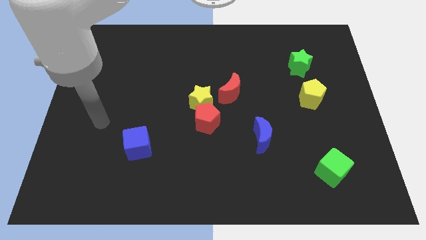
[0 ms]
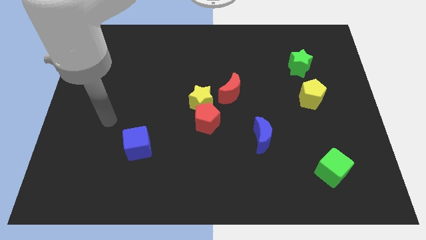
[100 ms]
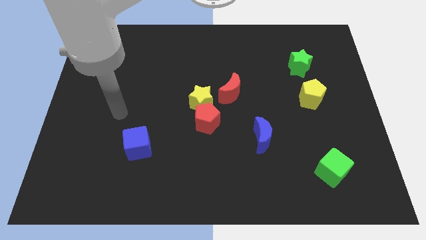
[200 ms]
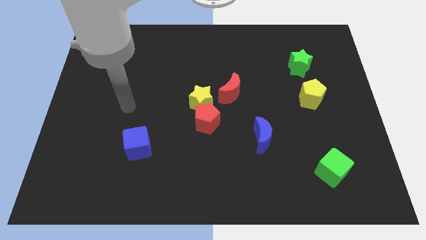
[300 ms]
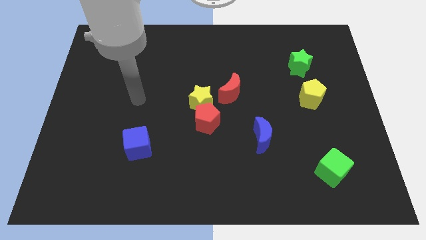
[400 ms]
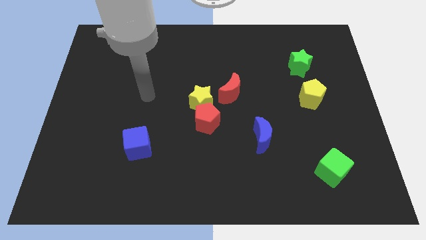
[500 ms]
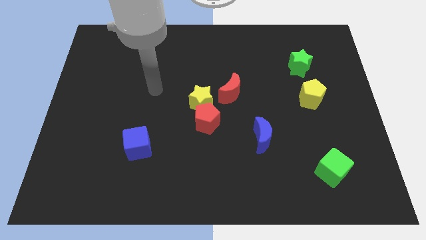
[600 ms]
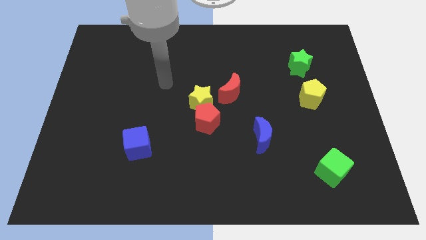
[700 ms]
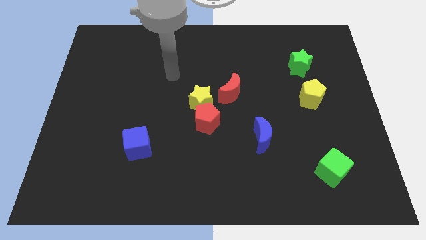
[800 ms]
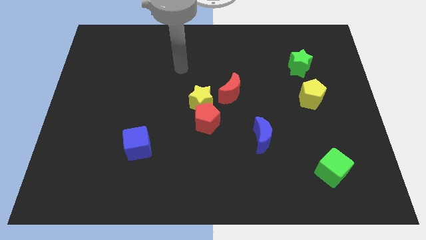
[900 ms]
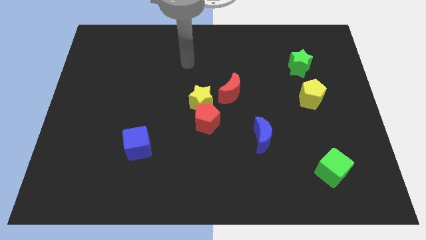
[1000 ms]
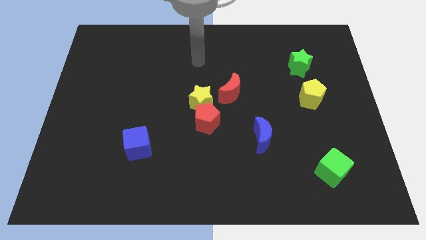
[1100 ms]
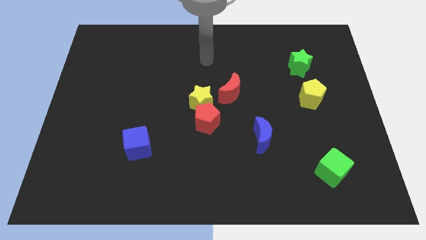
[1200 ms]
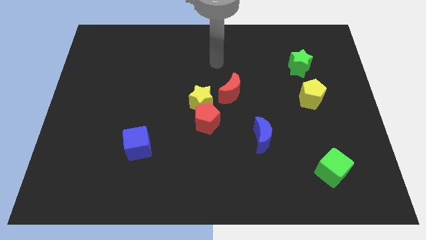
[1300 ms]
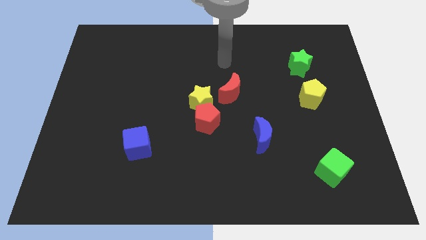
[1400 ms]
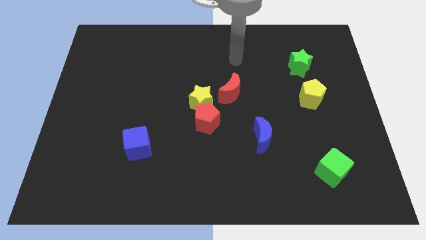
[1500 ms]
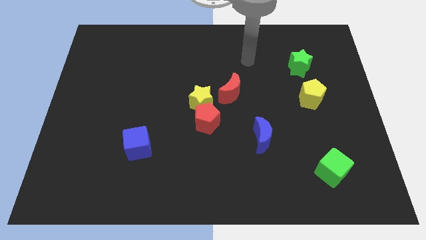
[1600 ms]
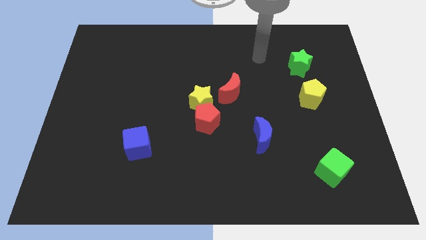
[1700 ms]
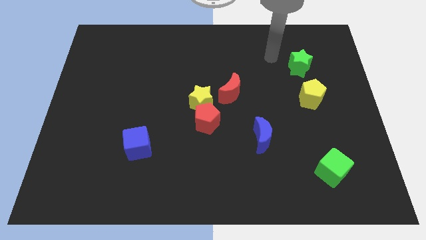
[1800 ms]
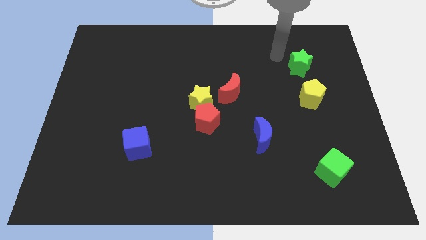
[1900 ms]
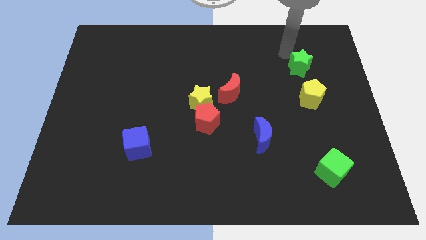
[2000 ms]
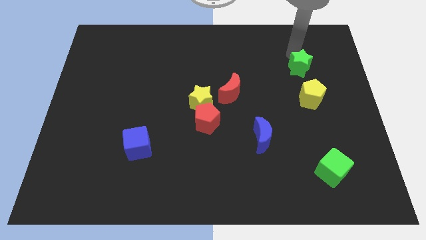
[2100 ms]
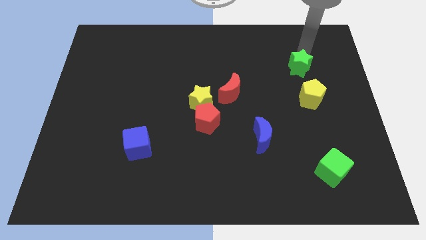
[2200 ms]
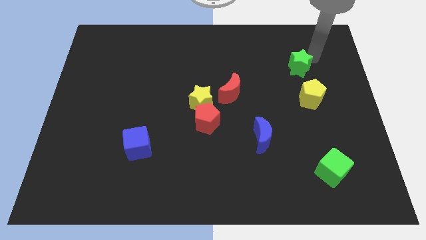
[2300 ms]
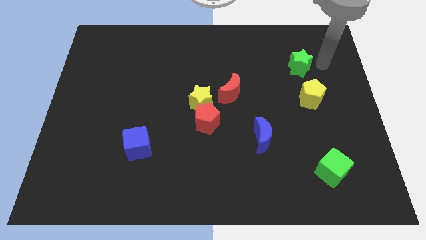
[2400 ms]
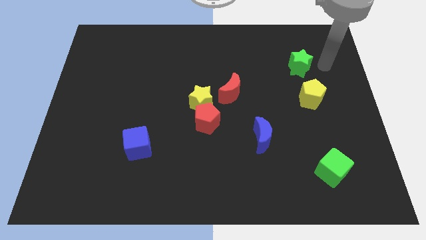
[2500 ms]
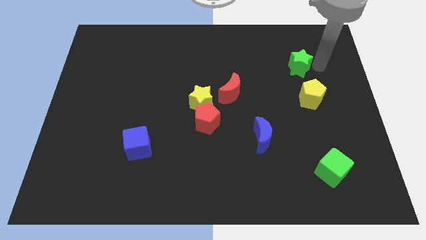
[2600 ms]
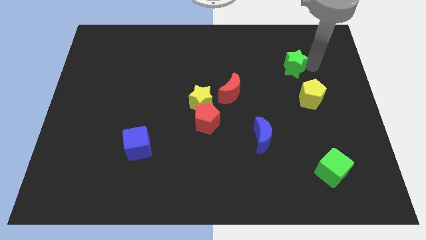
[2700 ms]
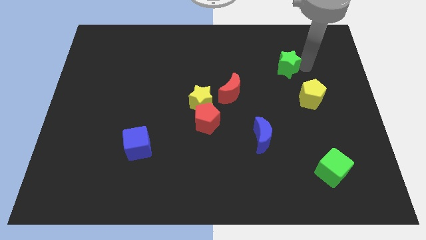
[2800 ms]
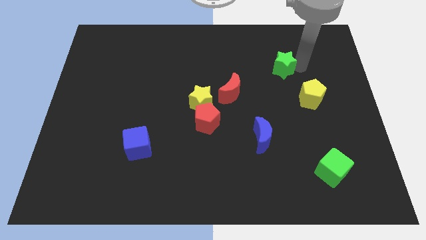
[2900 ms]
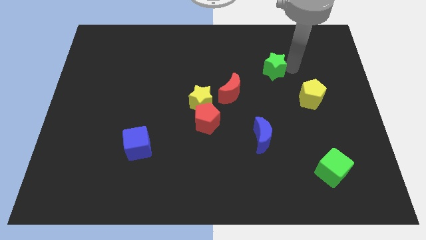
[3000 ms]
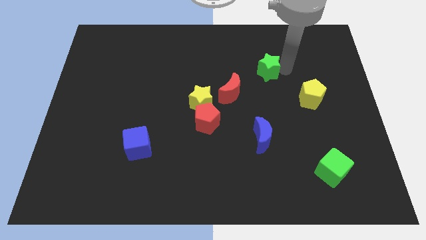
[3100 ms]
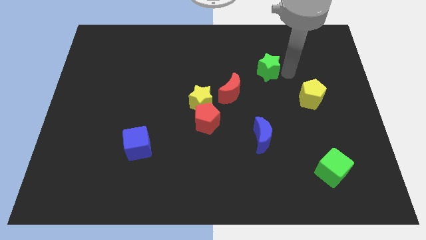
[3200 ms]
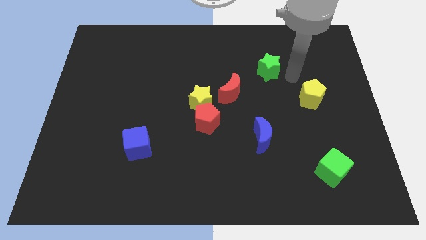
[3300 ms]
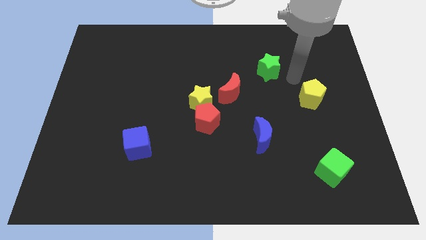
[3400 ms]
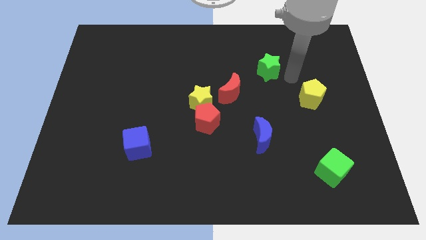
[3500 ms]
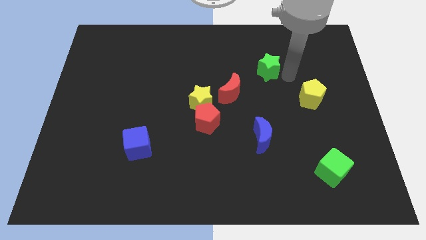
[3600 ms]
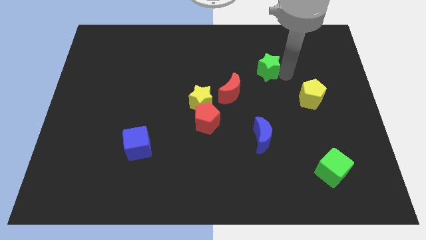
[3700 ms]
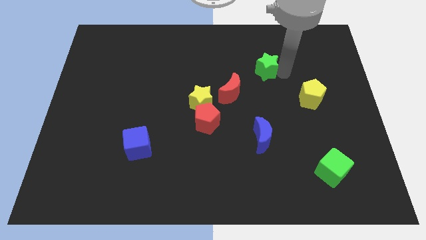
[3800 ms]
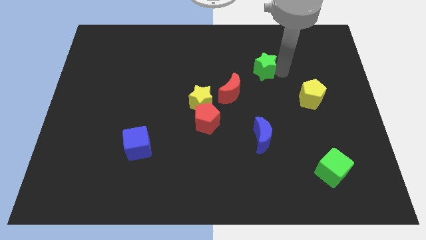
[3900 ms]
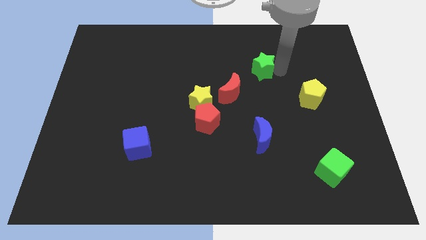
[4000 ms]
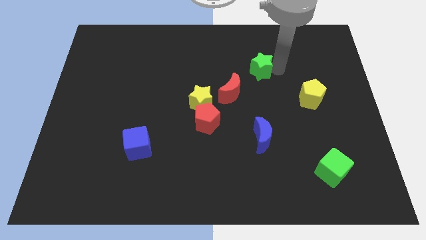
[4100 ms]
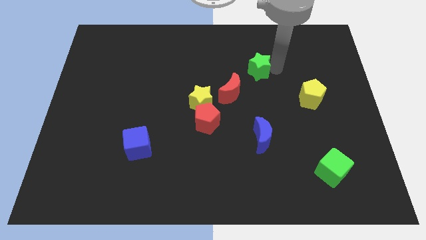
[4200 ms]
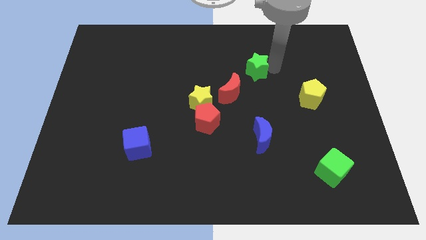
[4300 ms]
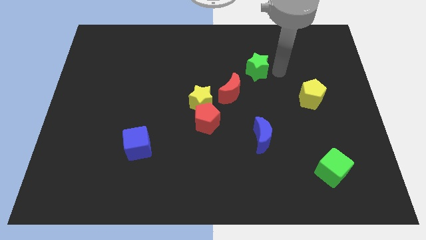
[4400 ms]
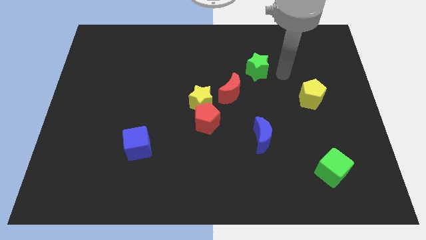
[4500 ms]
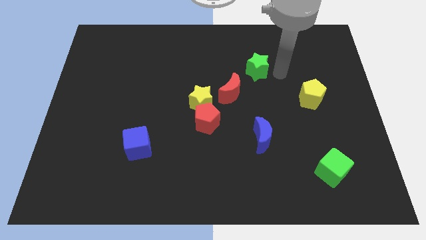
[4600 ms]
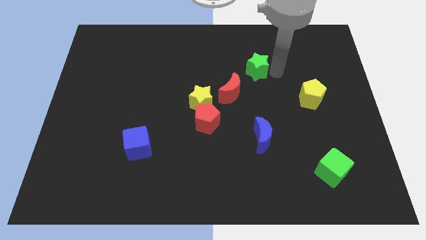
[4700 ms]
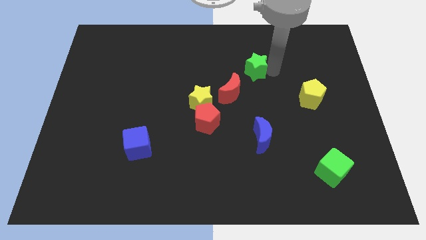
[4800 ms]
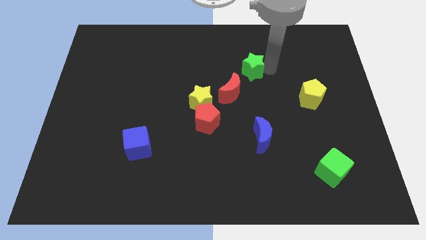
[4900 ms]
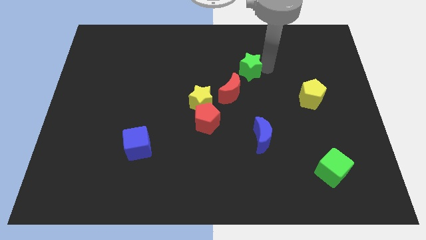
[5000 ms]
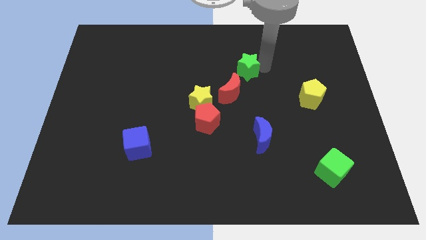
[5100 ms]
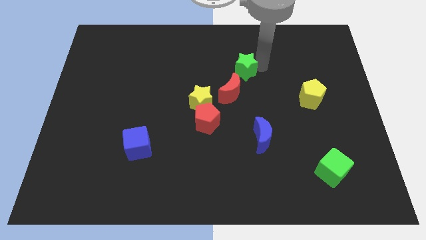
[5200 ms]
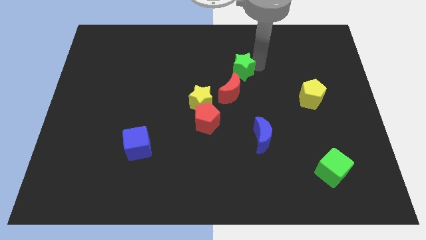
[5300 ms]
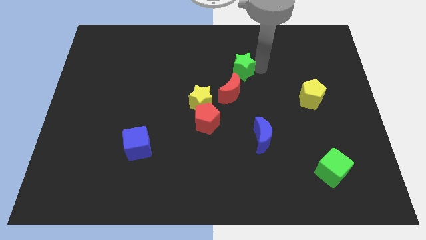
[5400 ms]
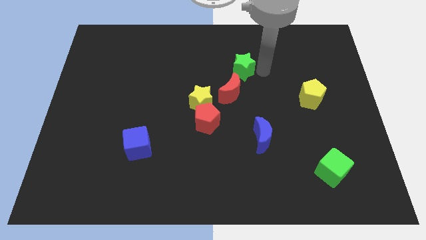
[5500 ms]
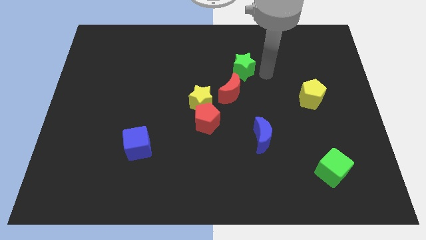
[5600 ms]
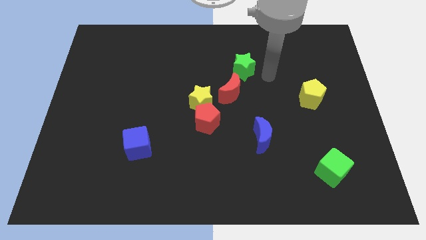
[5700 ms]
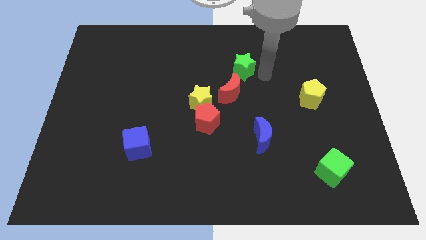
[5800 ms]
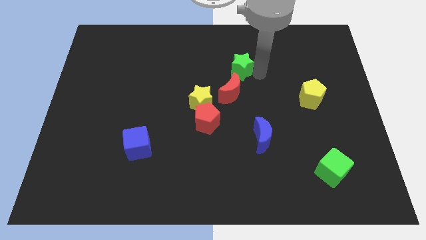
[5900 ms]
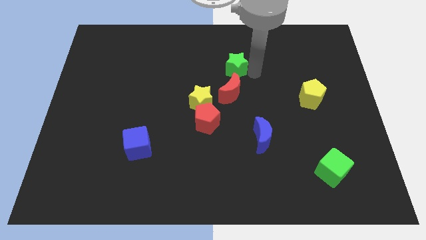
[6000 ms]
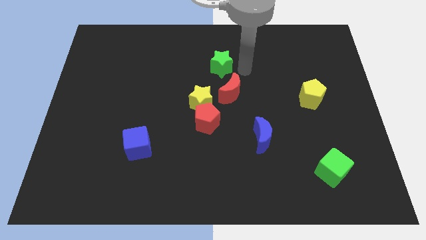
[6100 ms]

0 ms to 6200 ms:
push the green star to the left

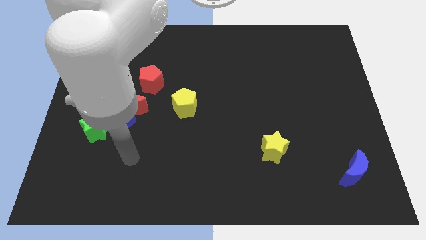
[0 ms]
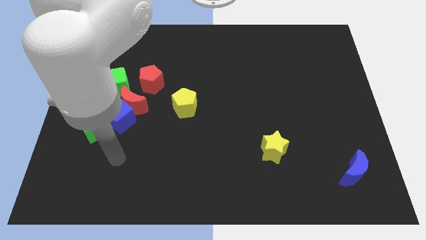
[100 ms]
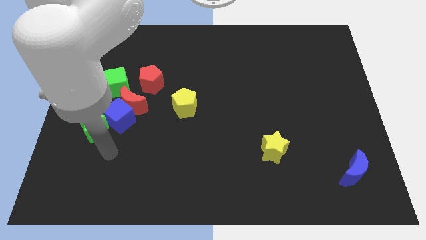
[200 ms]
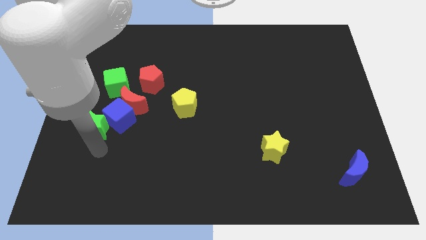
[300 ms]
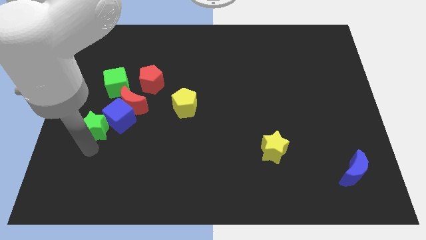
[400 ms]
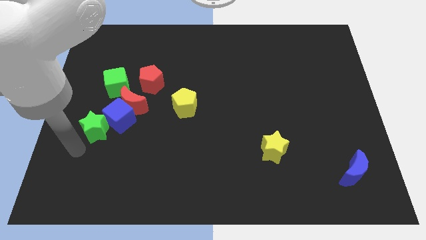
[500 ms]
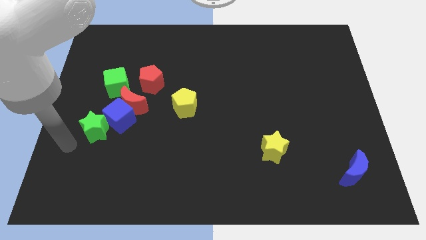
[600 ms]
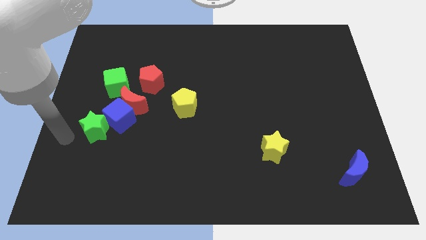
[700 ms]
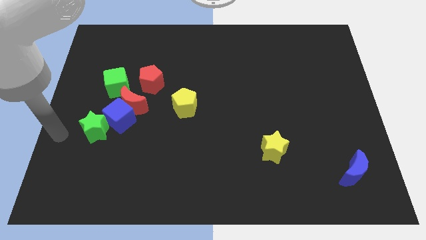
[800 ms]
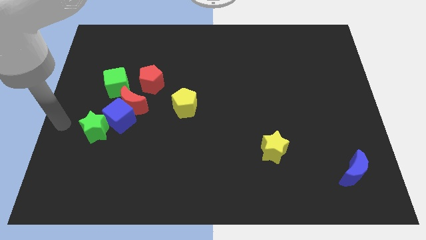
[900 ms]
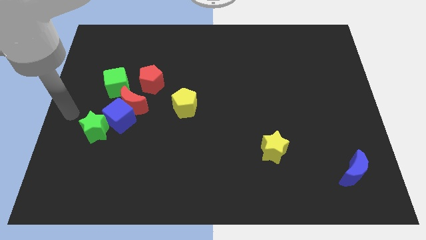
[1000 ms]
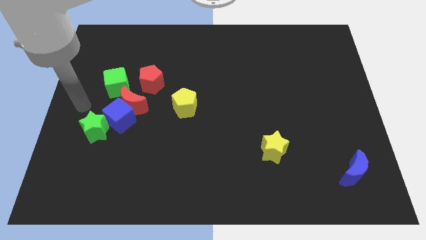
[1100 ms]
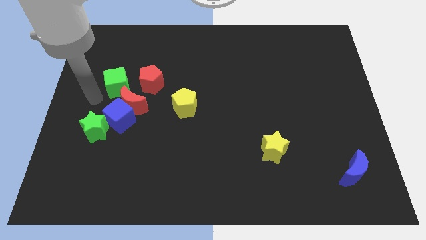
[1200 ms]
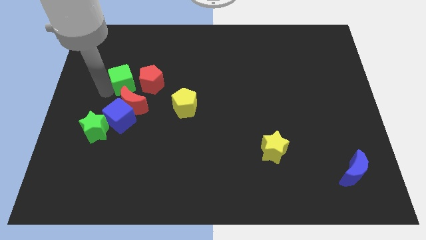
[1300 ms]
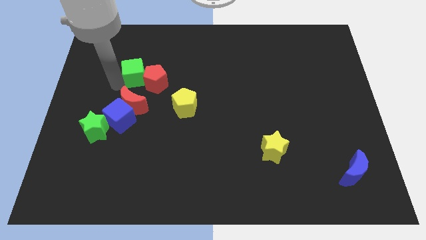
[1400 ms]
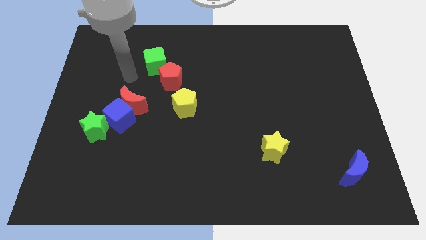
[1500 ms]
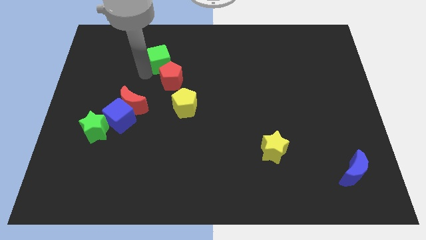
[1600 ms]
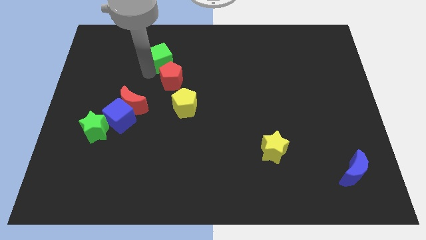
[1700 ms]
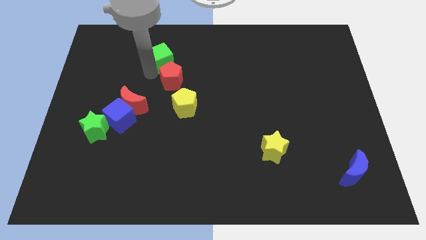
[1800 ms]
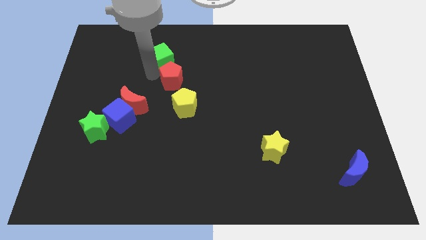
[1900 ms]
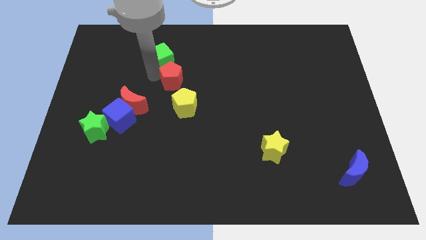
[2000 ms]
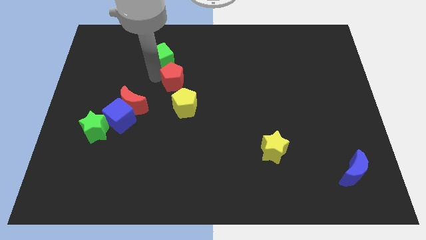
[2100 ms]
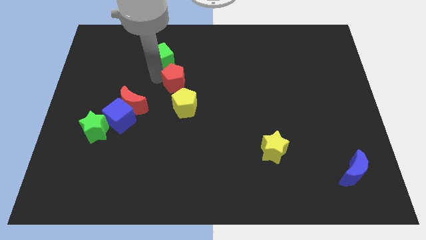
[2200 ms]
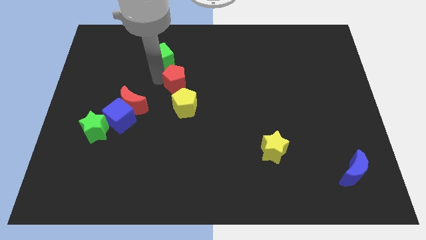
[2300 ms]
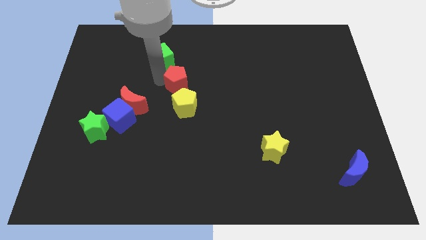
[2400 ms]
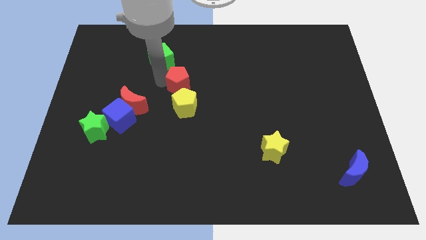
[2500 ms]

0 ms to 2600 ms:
move the red pentagon somewhat right
